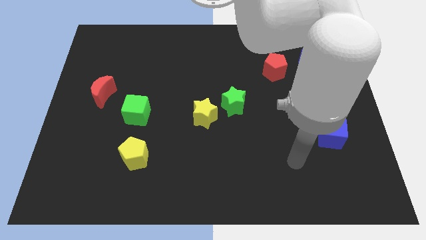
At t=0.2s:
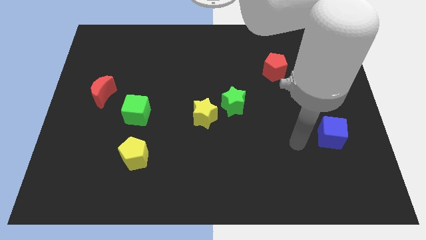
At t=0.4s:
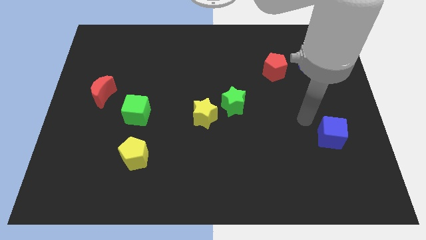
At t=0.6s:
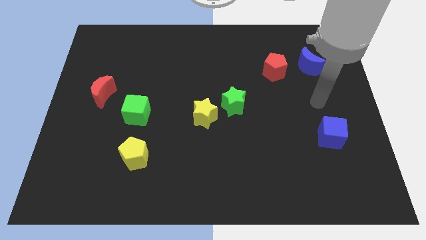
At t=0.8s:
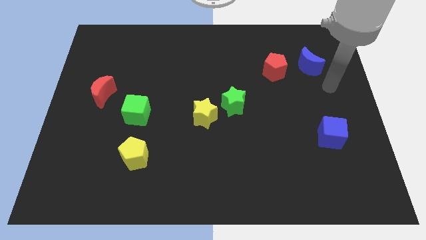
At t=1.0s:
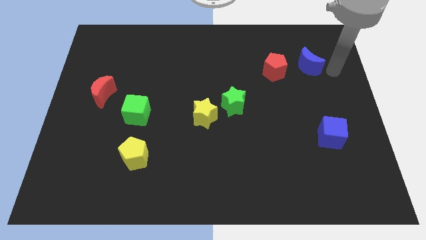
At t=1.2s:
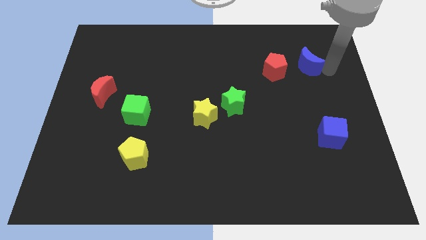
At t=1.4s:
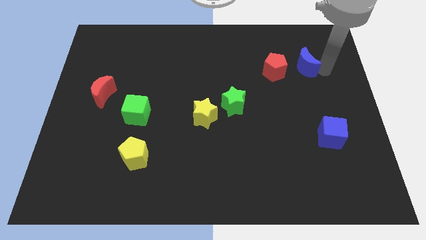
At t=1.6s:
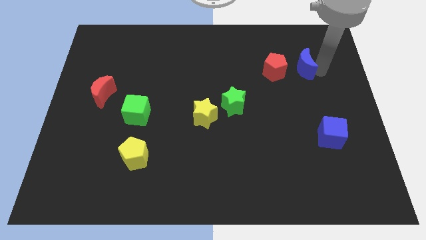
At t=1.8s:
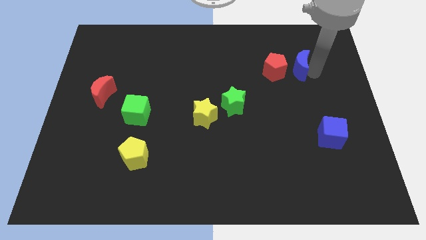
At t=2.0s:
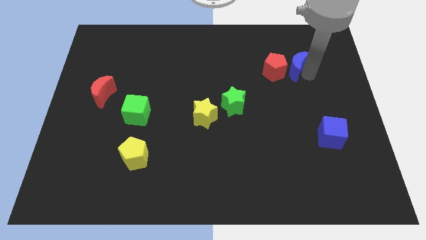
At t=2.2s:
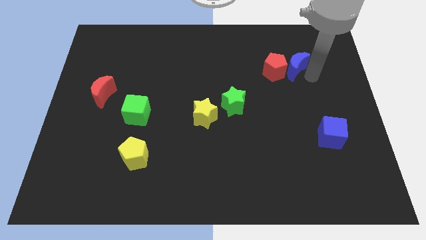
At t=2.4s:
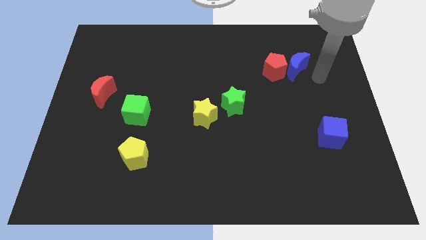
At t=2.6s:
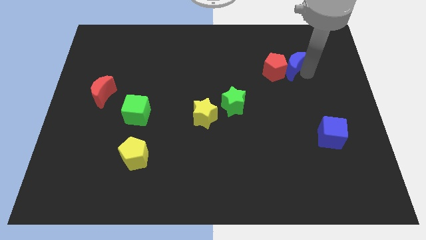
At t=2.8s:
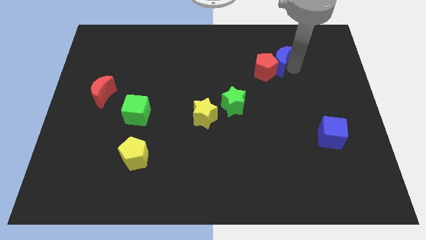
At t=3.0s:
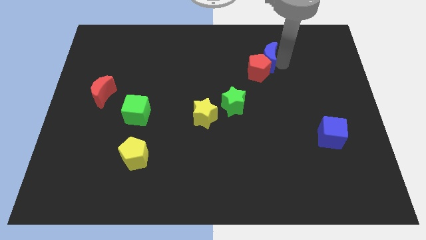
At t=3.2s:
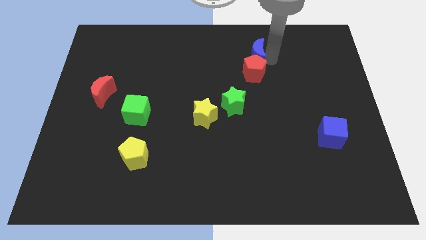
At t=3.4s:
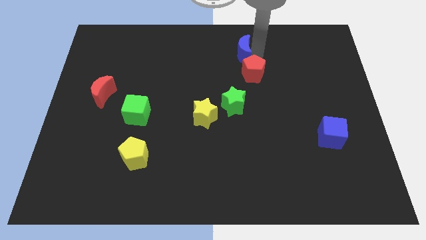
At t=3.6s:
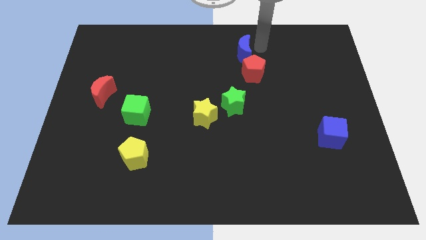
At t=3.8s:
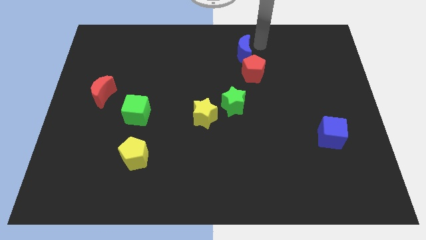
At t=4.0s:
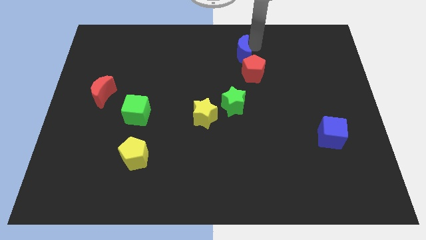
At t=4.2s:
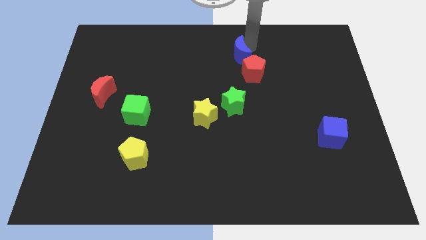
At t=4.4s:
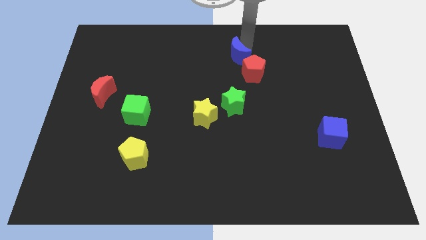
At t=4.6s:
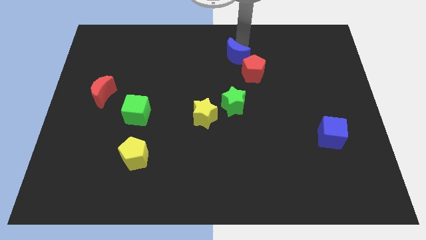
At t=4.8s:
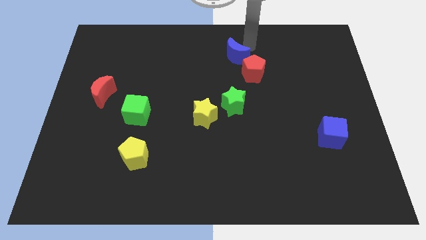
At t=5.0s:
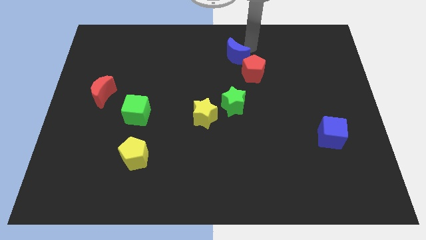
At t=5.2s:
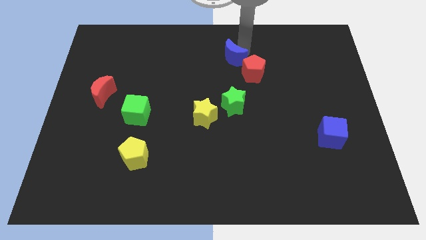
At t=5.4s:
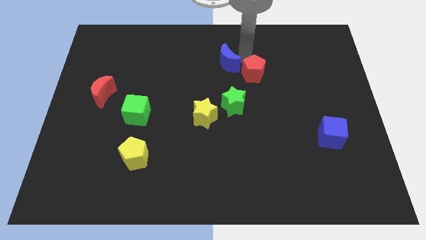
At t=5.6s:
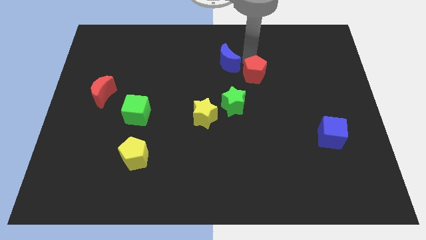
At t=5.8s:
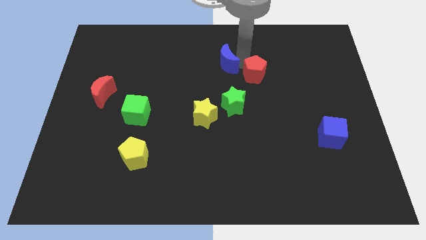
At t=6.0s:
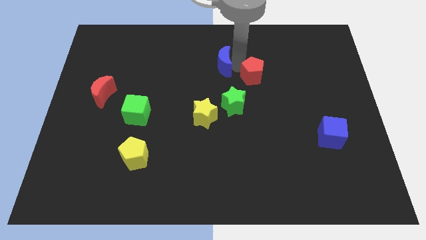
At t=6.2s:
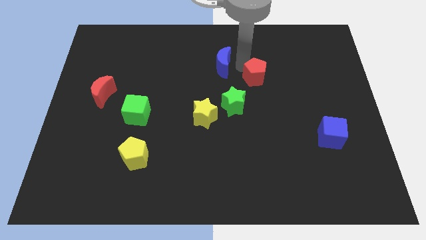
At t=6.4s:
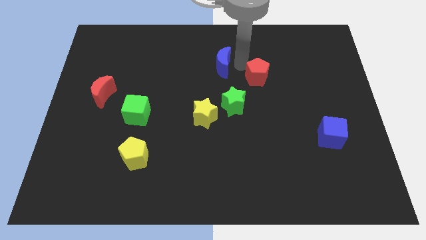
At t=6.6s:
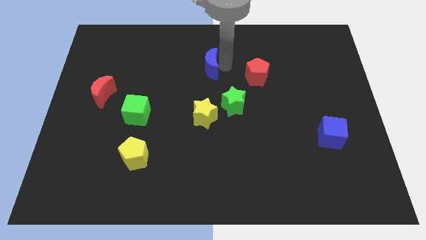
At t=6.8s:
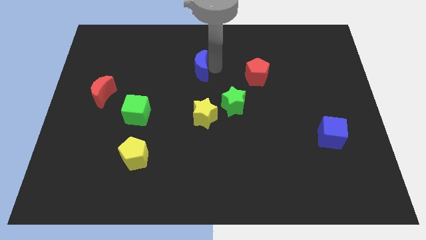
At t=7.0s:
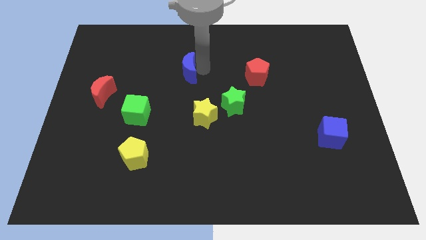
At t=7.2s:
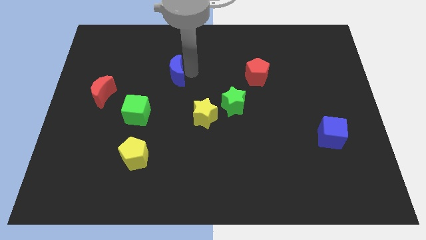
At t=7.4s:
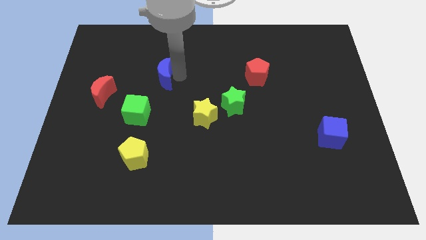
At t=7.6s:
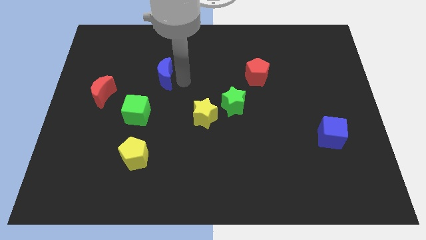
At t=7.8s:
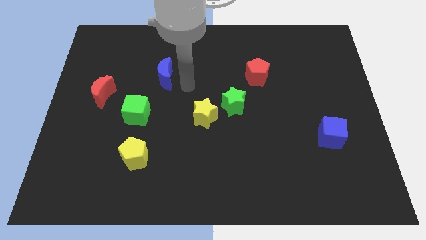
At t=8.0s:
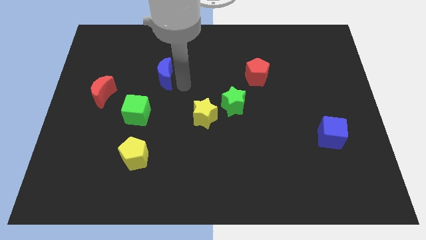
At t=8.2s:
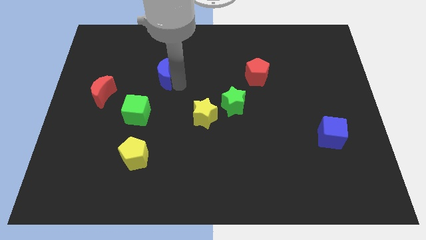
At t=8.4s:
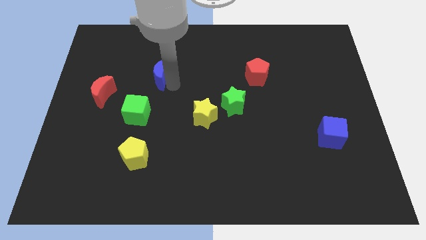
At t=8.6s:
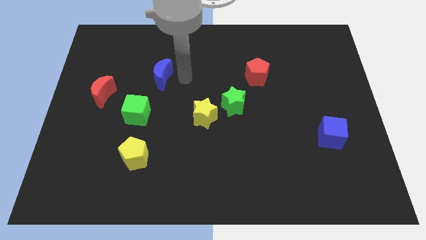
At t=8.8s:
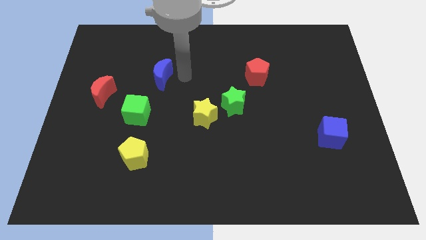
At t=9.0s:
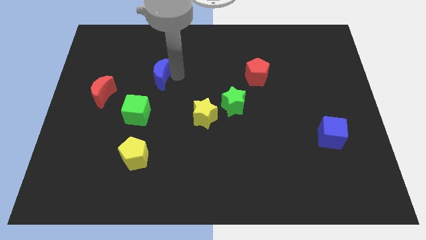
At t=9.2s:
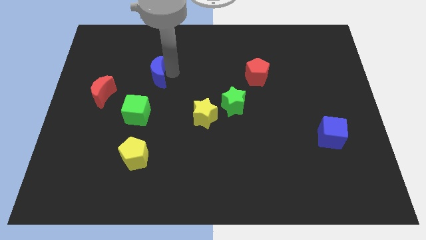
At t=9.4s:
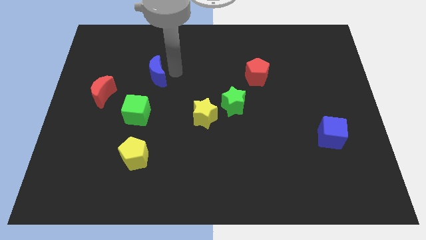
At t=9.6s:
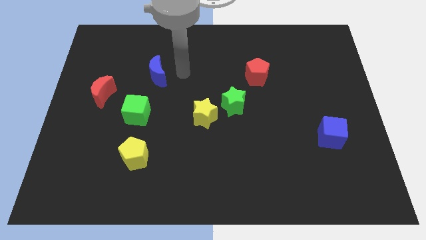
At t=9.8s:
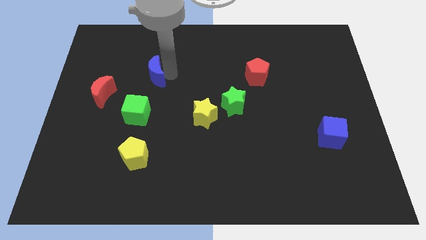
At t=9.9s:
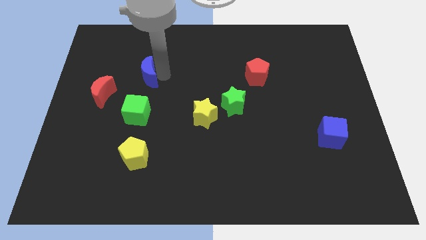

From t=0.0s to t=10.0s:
put the blue moon to the top right of the red moon

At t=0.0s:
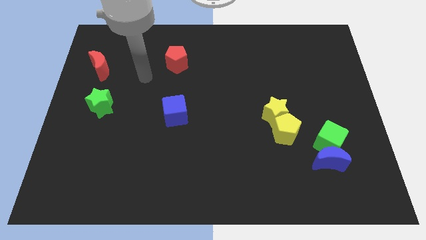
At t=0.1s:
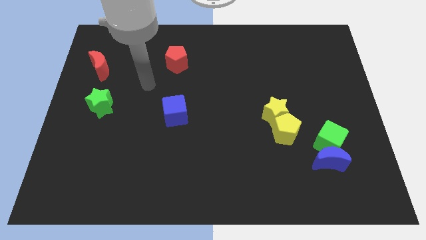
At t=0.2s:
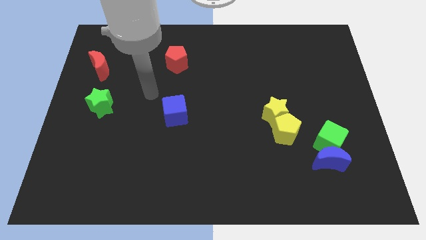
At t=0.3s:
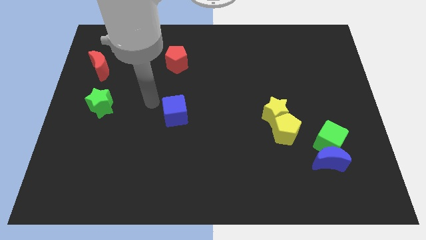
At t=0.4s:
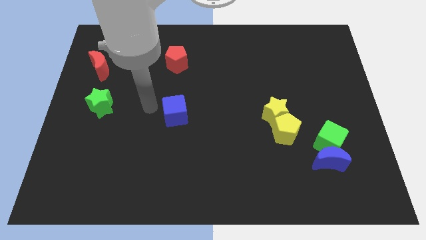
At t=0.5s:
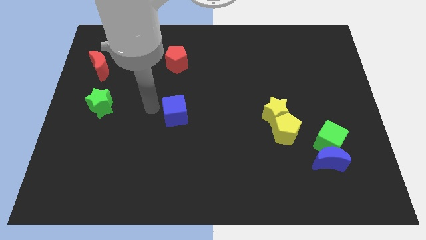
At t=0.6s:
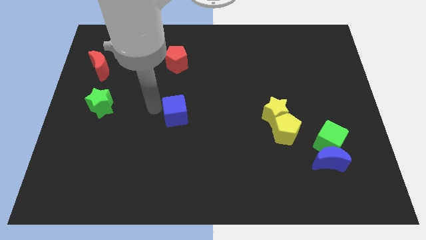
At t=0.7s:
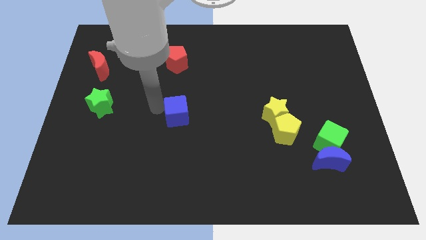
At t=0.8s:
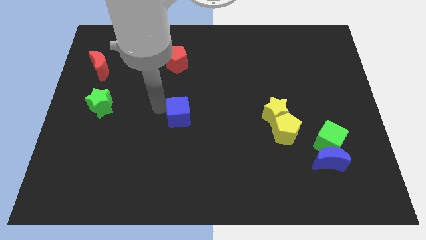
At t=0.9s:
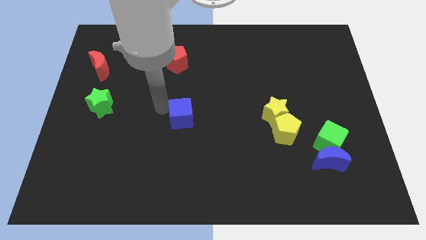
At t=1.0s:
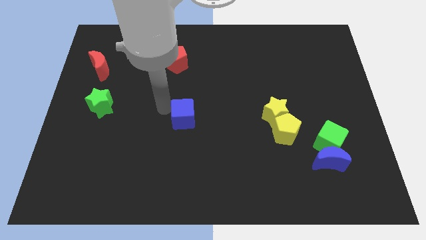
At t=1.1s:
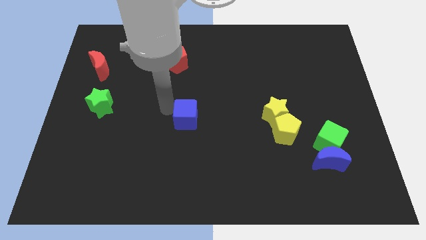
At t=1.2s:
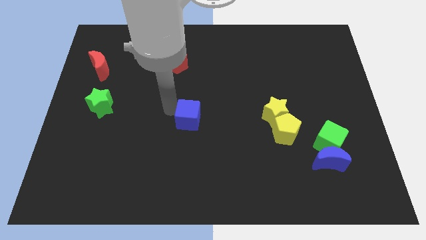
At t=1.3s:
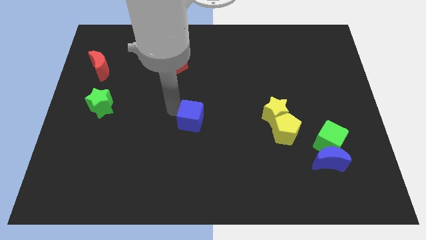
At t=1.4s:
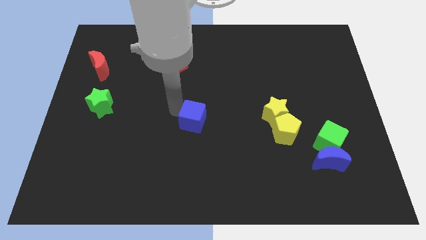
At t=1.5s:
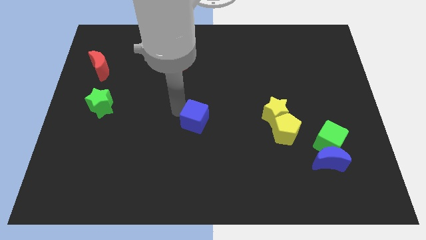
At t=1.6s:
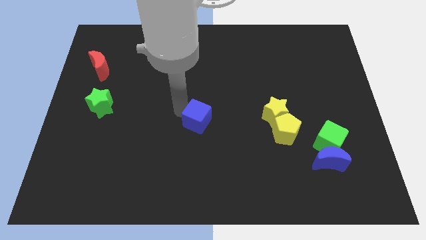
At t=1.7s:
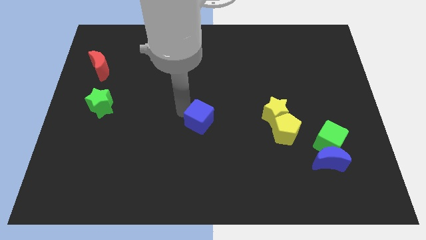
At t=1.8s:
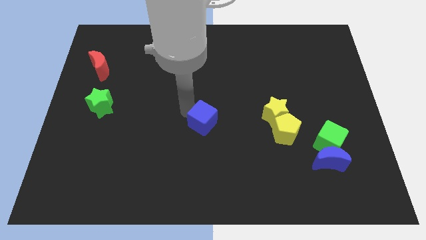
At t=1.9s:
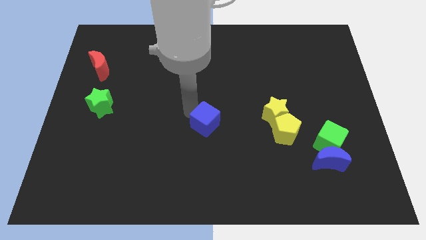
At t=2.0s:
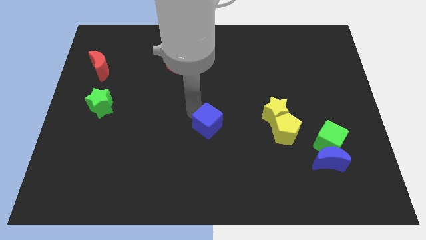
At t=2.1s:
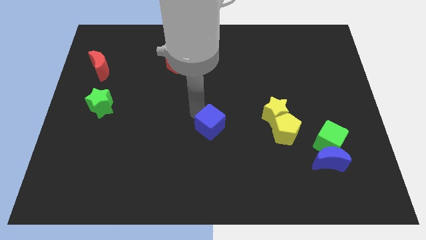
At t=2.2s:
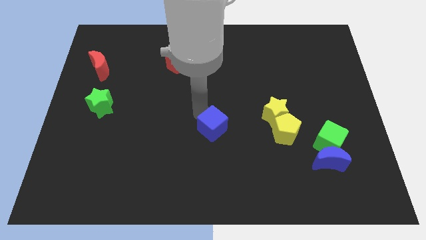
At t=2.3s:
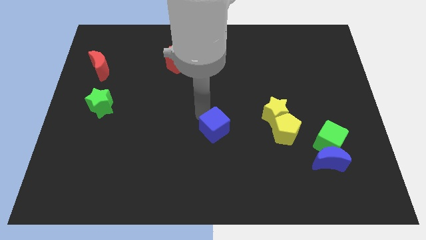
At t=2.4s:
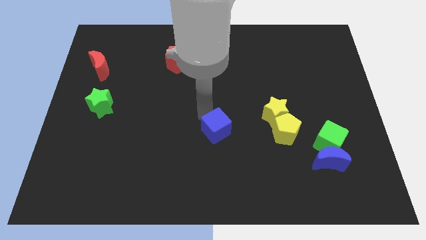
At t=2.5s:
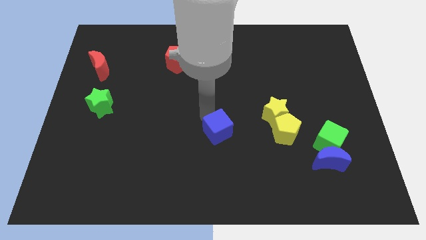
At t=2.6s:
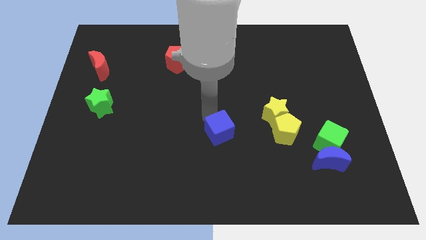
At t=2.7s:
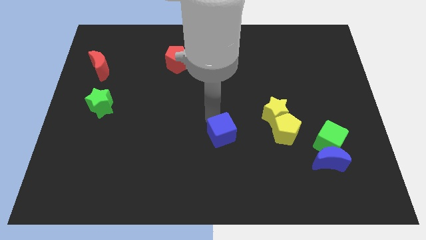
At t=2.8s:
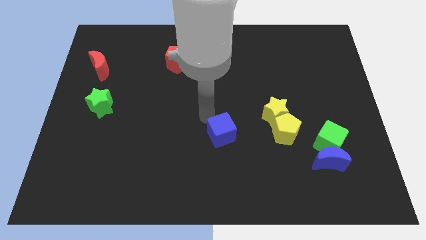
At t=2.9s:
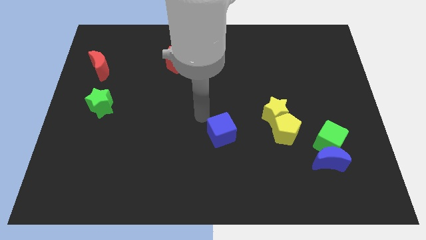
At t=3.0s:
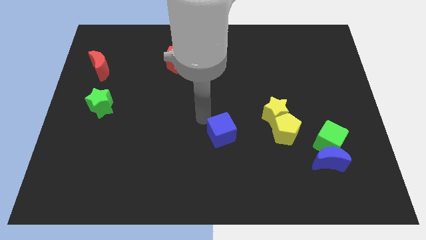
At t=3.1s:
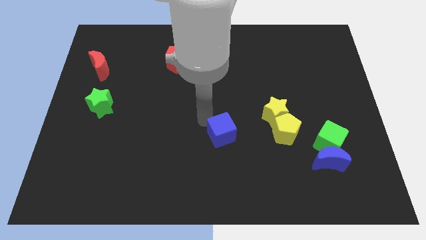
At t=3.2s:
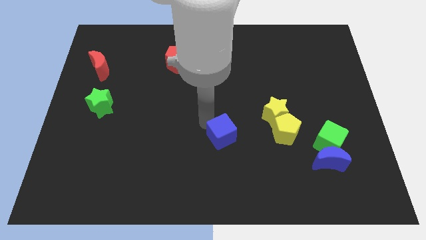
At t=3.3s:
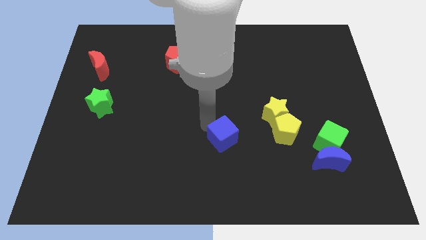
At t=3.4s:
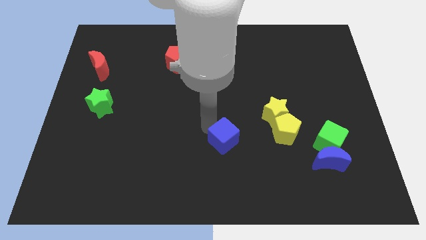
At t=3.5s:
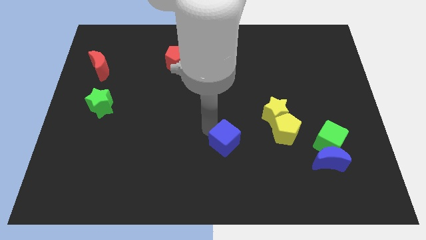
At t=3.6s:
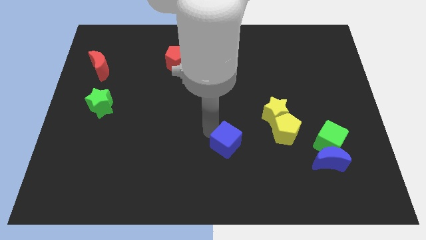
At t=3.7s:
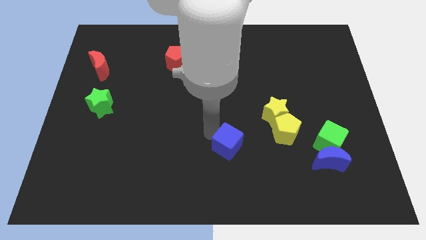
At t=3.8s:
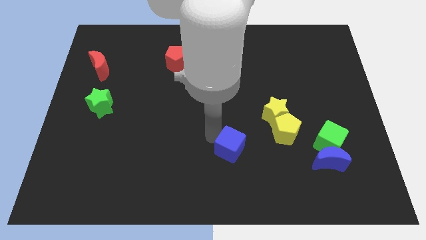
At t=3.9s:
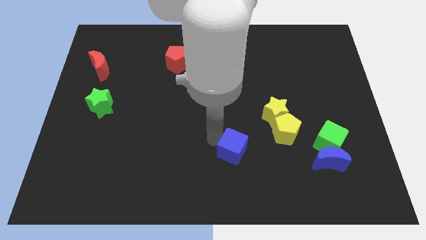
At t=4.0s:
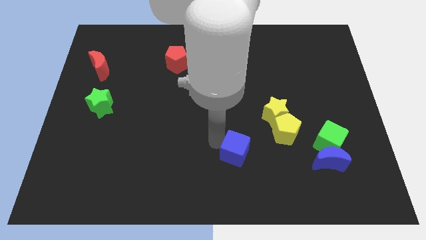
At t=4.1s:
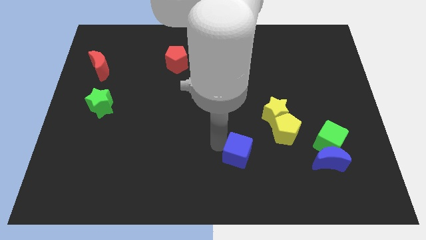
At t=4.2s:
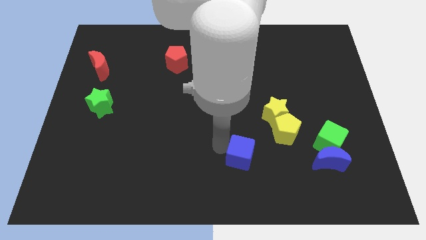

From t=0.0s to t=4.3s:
put the blue cube to the bottom left of the yellow pentagon
